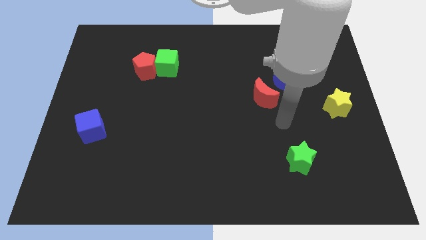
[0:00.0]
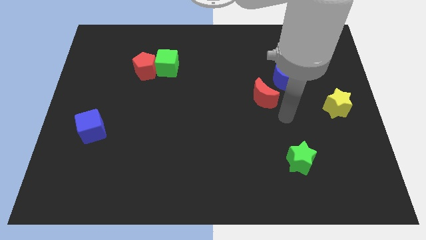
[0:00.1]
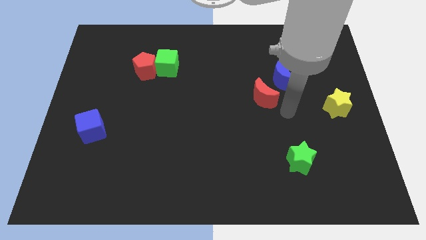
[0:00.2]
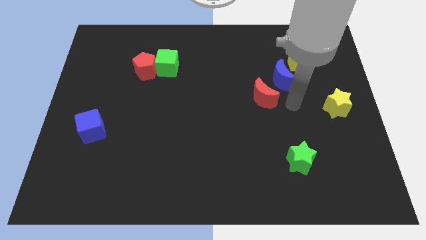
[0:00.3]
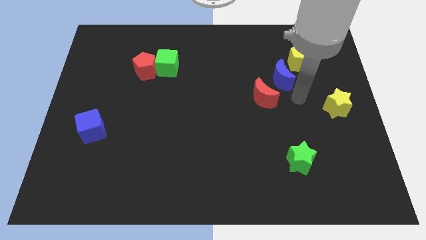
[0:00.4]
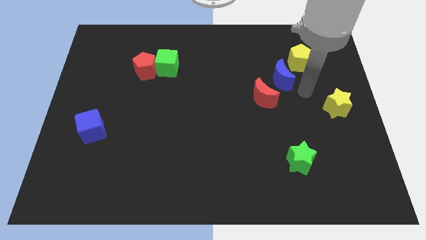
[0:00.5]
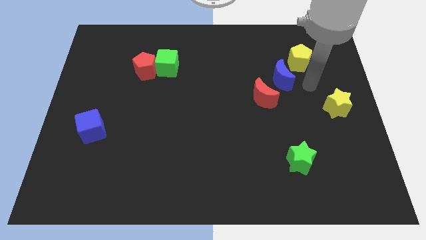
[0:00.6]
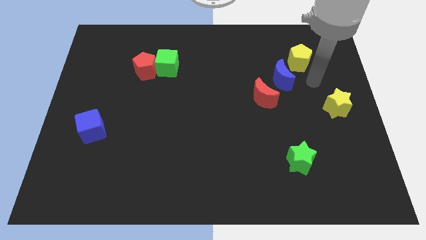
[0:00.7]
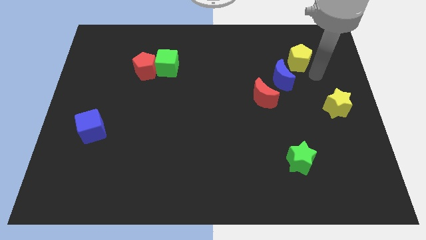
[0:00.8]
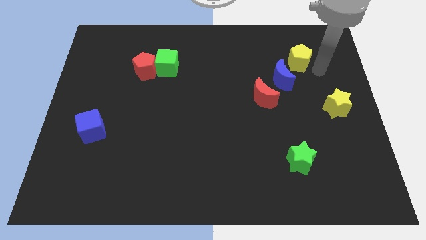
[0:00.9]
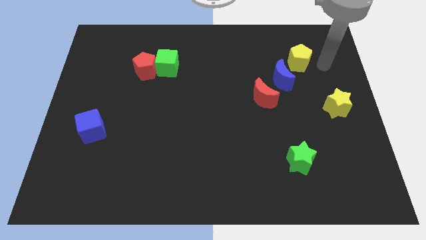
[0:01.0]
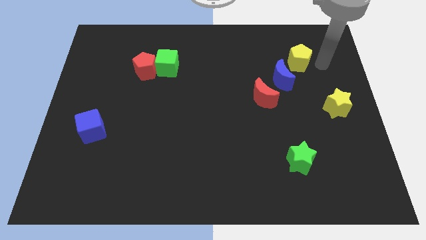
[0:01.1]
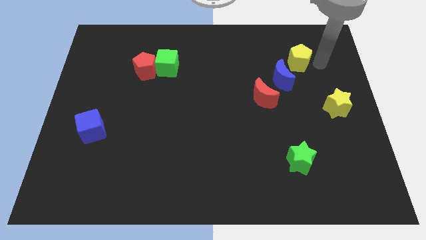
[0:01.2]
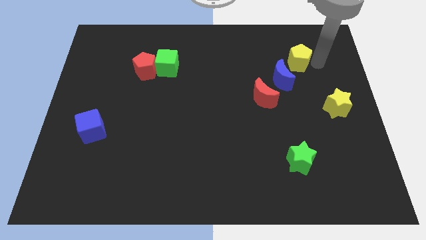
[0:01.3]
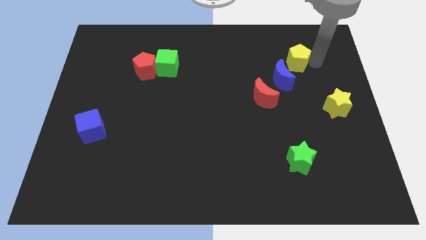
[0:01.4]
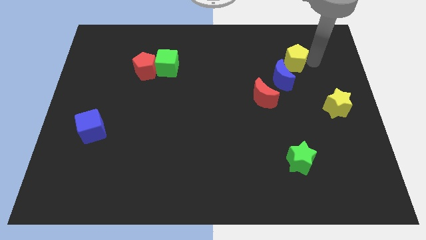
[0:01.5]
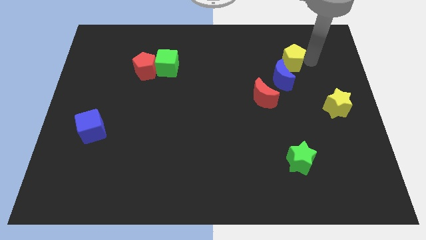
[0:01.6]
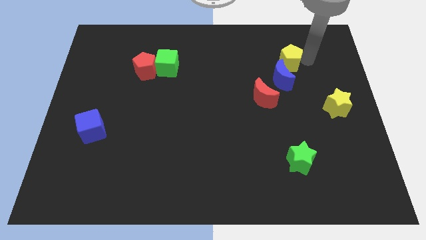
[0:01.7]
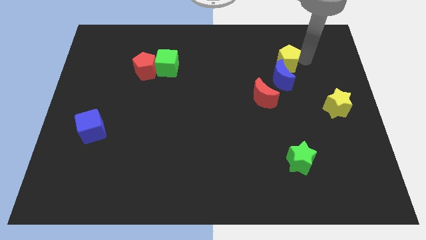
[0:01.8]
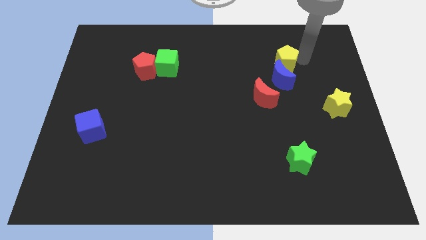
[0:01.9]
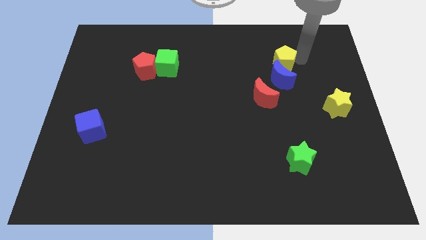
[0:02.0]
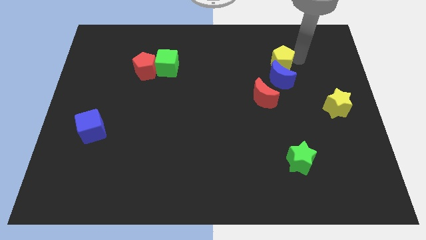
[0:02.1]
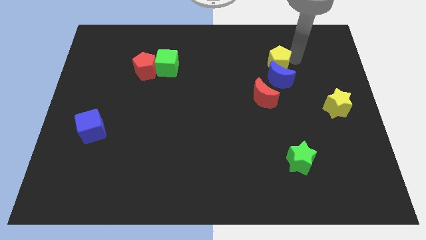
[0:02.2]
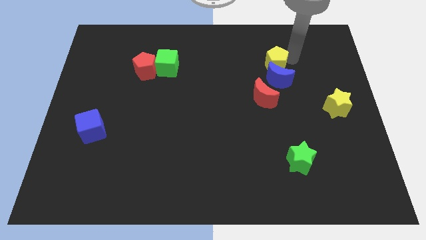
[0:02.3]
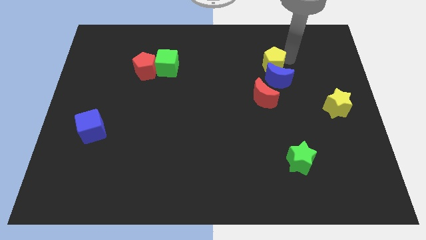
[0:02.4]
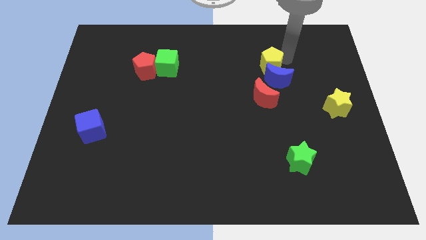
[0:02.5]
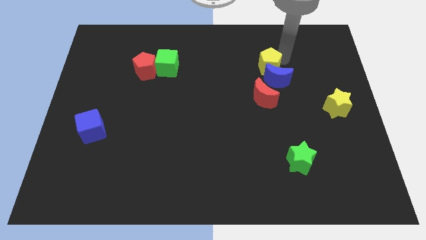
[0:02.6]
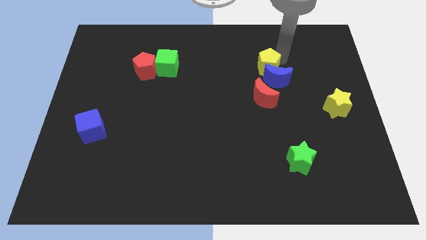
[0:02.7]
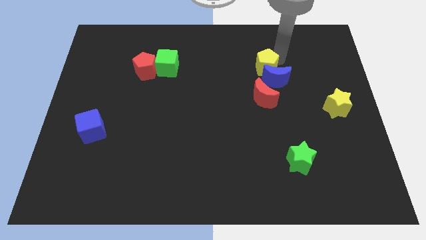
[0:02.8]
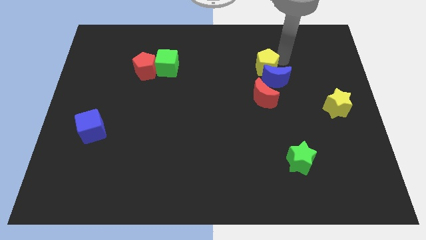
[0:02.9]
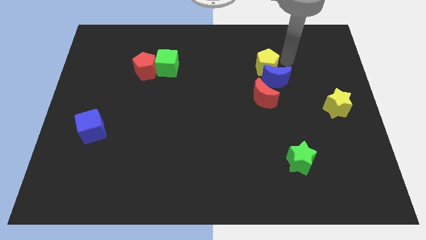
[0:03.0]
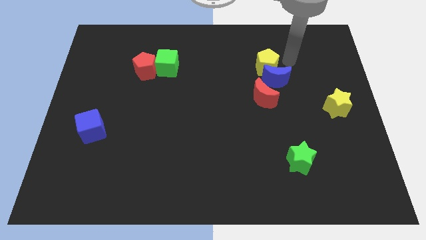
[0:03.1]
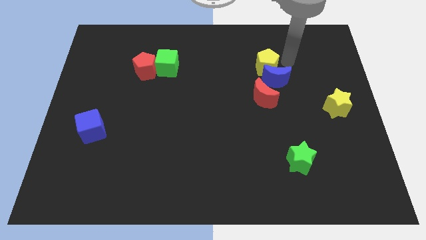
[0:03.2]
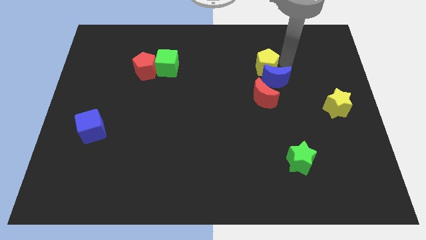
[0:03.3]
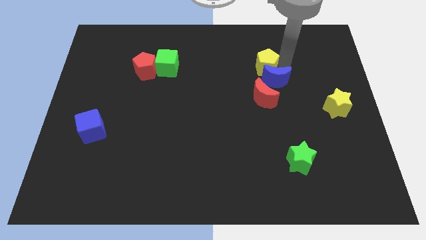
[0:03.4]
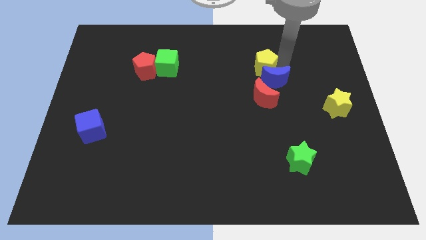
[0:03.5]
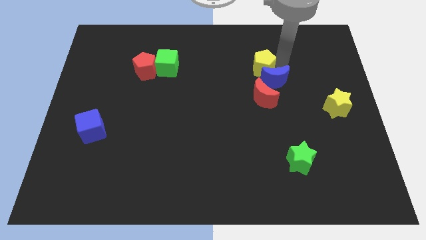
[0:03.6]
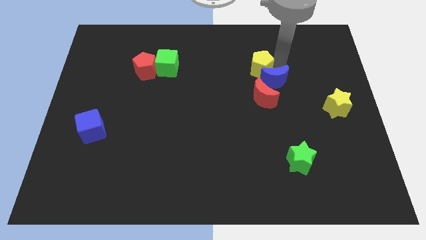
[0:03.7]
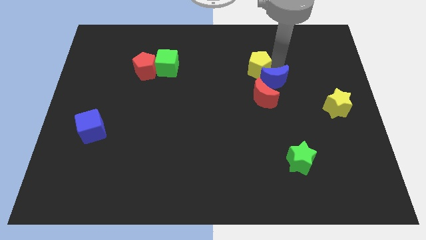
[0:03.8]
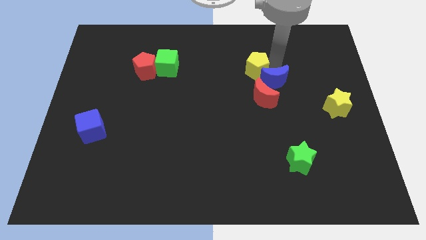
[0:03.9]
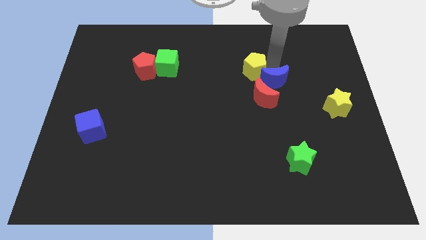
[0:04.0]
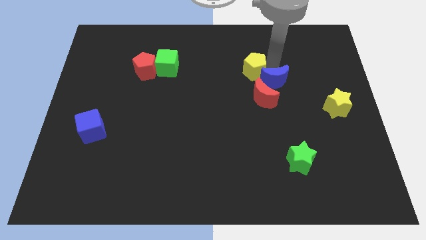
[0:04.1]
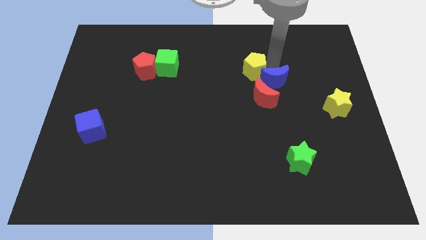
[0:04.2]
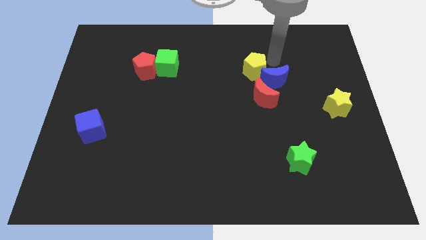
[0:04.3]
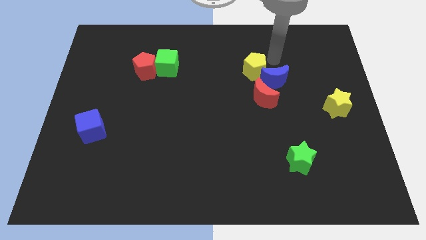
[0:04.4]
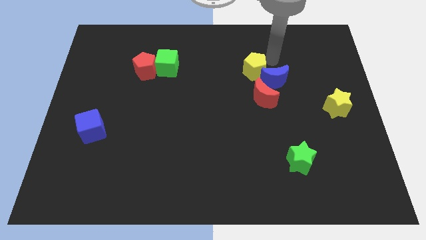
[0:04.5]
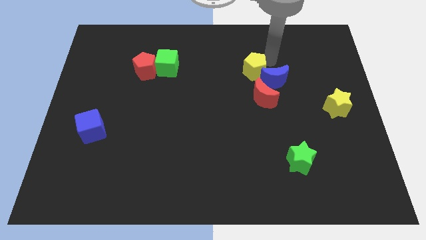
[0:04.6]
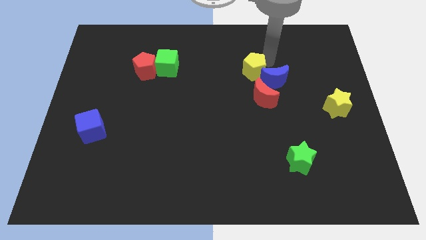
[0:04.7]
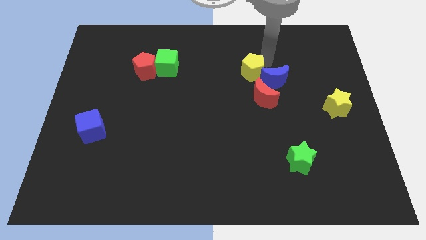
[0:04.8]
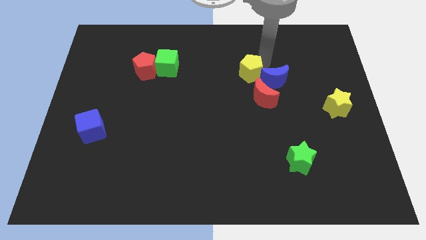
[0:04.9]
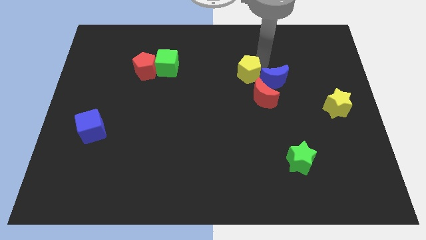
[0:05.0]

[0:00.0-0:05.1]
move the yellow pentagon to the center

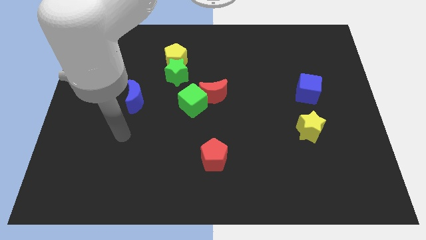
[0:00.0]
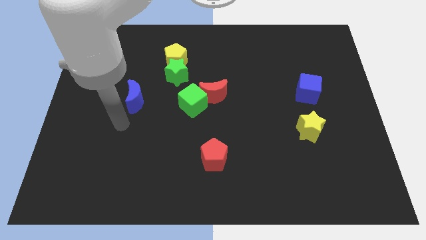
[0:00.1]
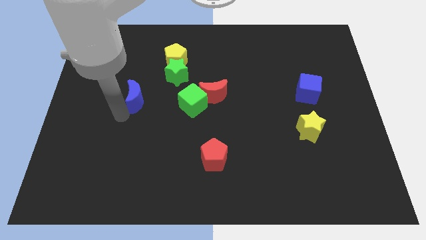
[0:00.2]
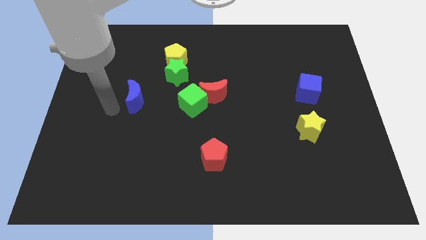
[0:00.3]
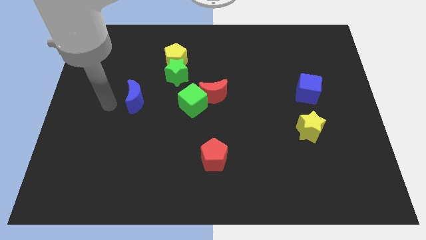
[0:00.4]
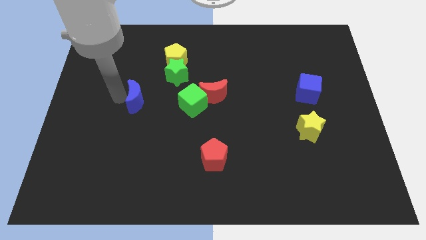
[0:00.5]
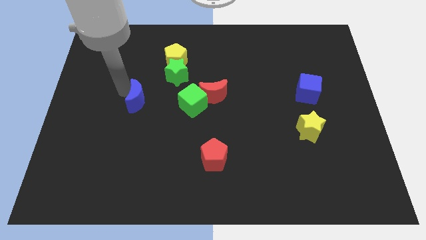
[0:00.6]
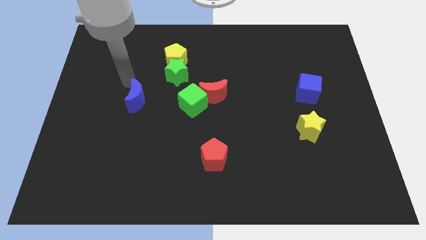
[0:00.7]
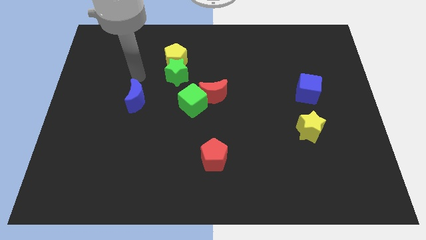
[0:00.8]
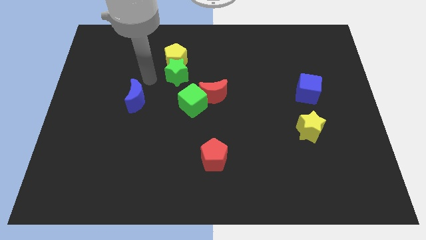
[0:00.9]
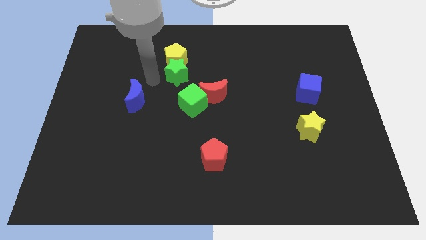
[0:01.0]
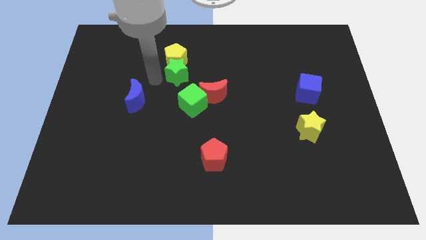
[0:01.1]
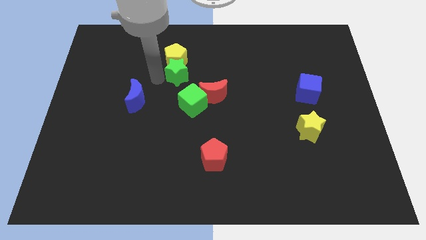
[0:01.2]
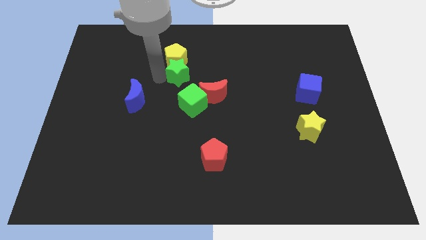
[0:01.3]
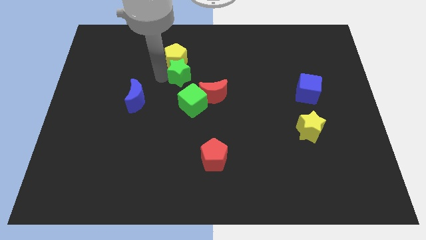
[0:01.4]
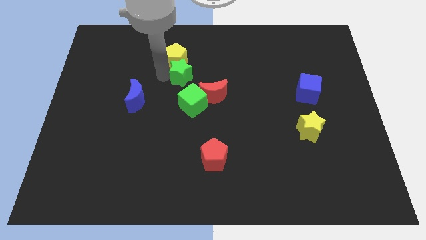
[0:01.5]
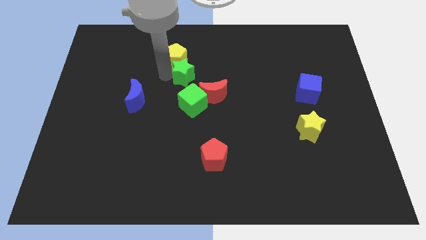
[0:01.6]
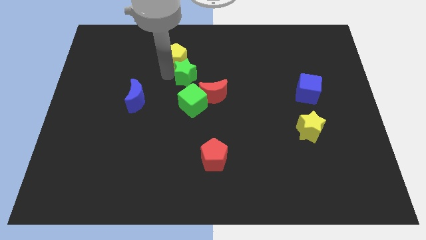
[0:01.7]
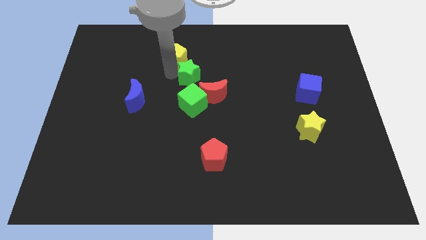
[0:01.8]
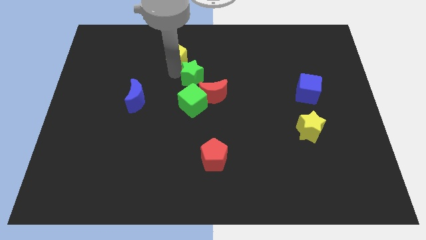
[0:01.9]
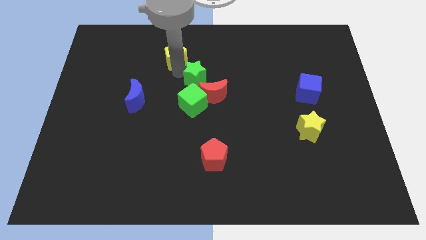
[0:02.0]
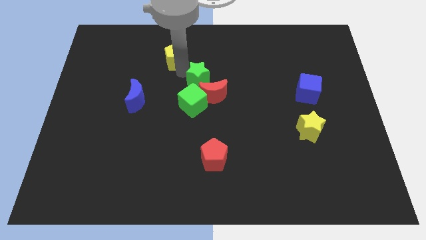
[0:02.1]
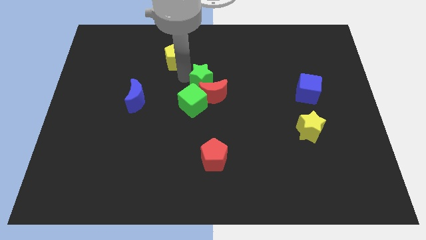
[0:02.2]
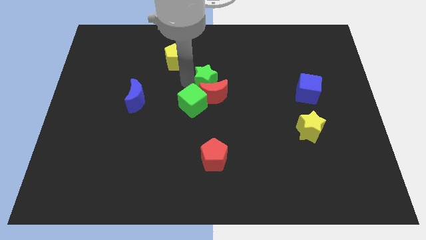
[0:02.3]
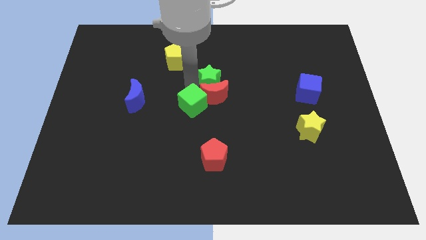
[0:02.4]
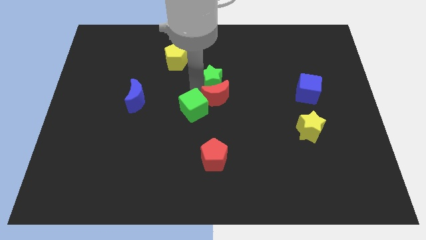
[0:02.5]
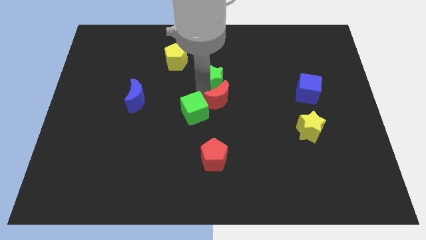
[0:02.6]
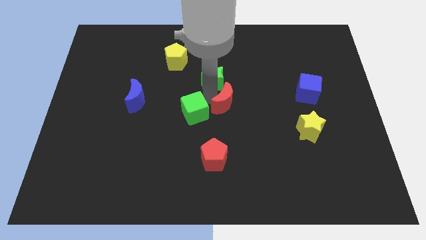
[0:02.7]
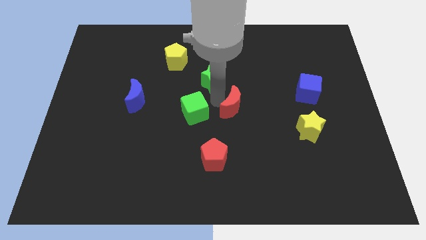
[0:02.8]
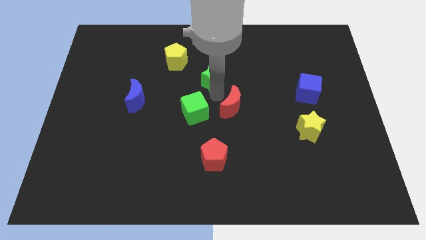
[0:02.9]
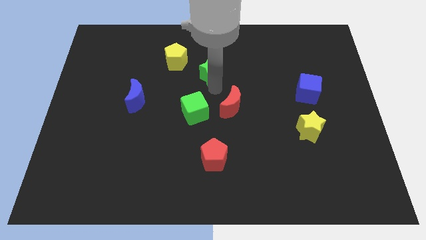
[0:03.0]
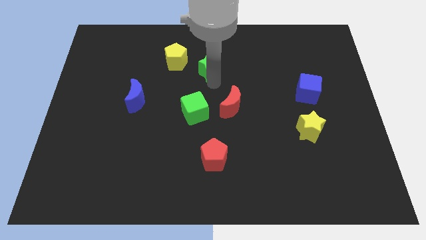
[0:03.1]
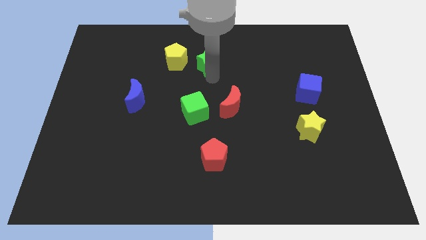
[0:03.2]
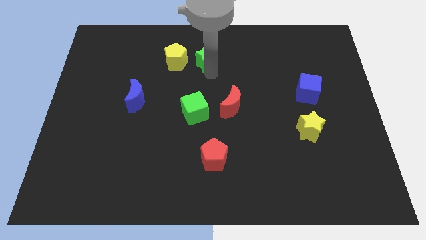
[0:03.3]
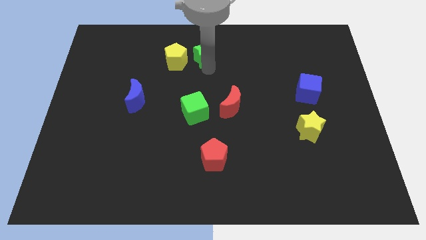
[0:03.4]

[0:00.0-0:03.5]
push the green star to the towards your base
